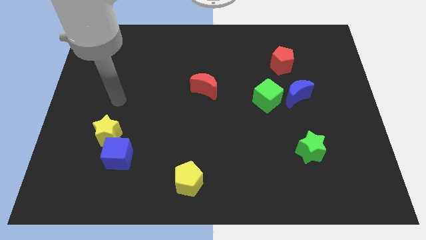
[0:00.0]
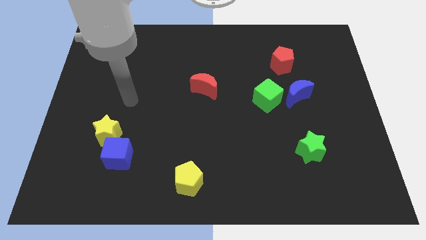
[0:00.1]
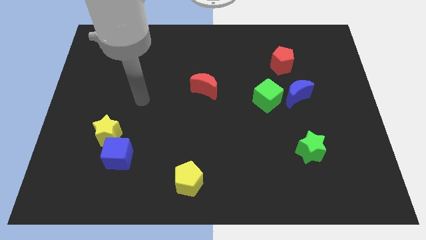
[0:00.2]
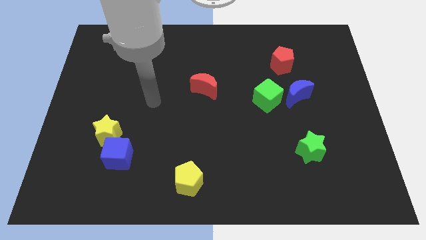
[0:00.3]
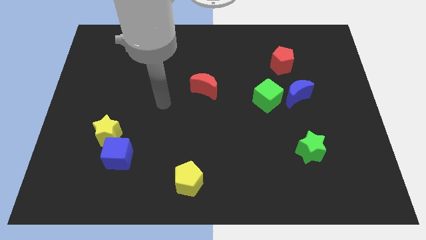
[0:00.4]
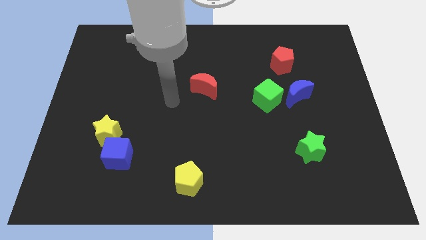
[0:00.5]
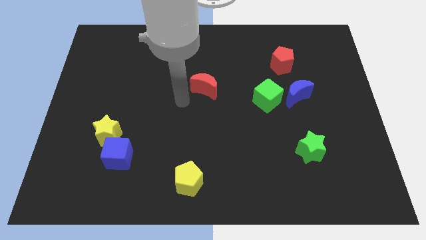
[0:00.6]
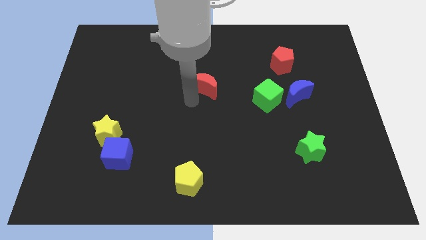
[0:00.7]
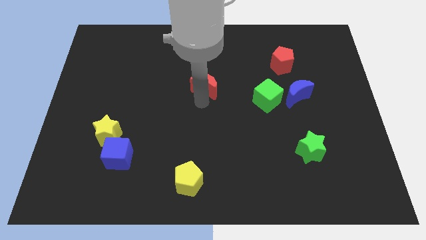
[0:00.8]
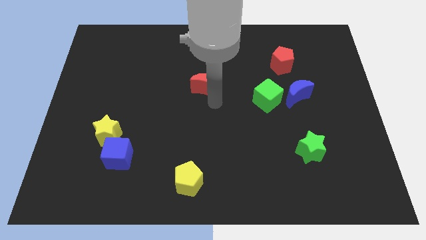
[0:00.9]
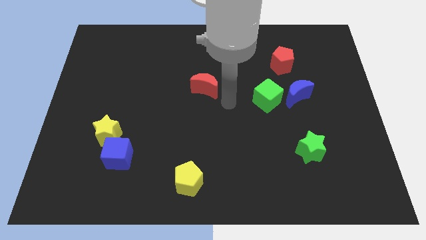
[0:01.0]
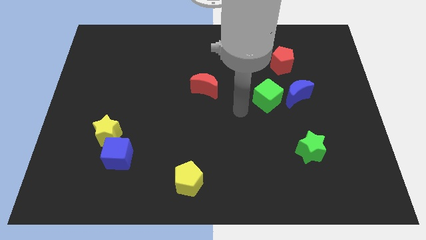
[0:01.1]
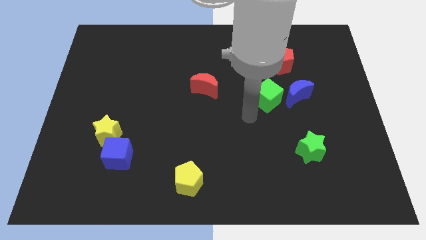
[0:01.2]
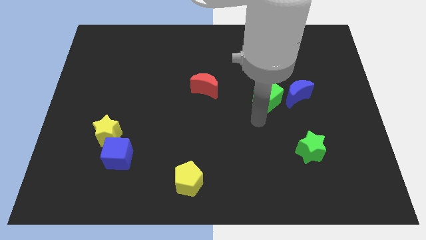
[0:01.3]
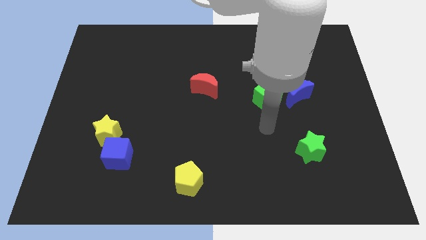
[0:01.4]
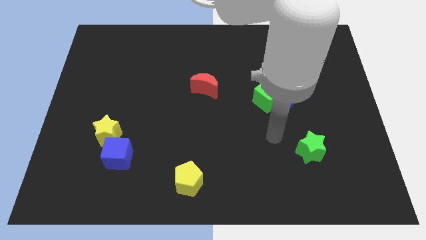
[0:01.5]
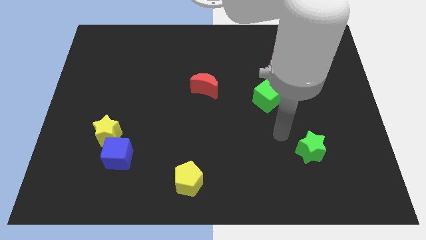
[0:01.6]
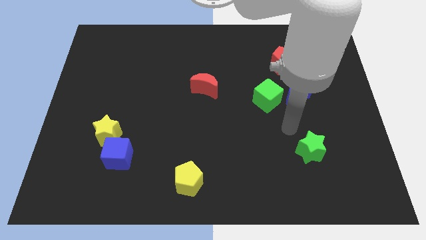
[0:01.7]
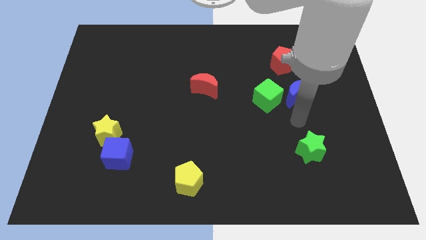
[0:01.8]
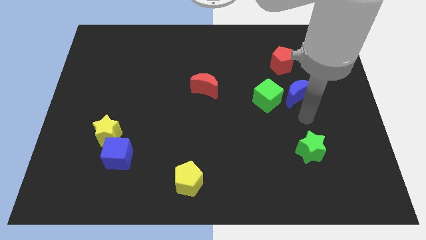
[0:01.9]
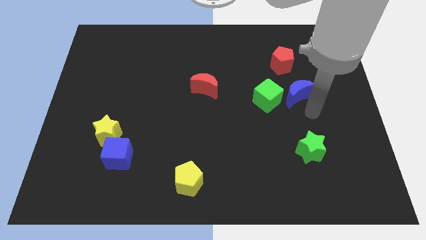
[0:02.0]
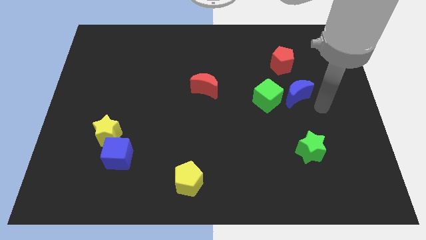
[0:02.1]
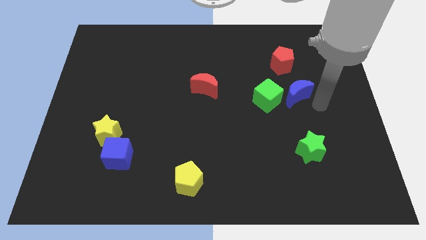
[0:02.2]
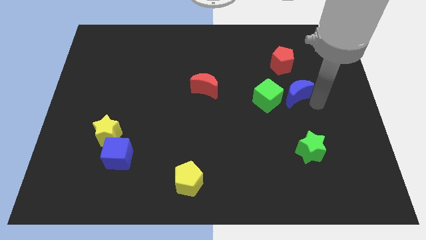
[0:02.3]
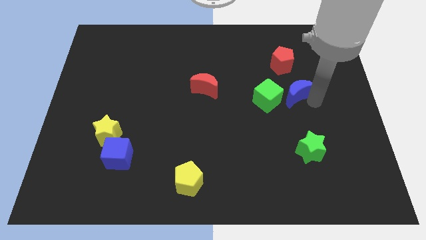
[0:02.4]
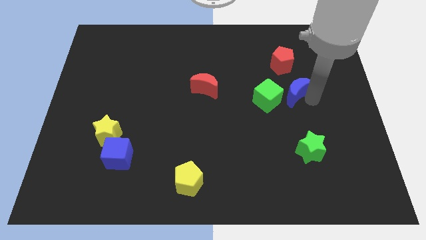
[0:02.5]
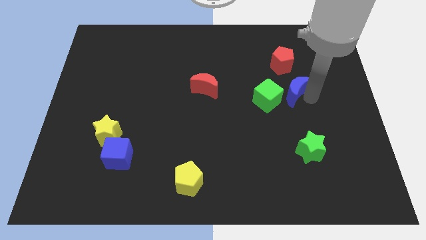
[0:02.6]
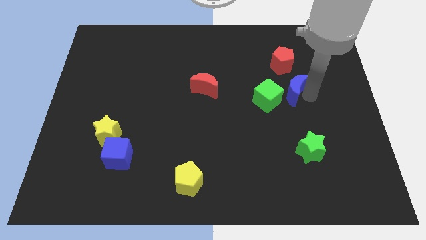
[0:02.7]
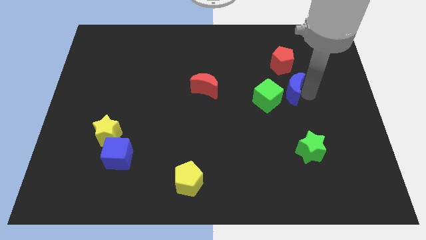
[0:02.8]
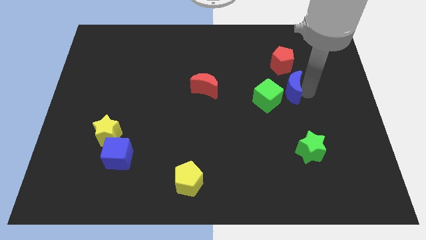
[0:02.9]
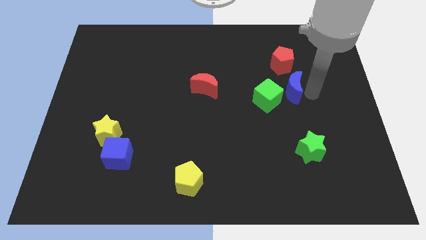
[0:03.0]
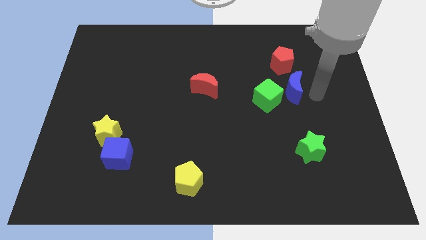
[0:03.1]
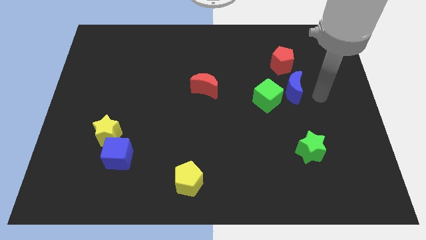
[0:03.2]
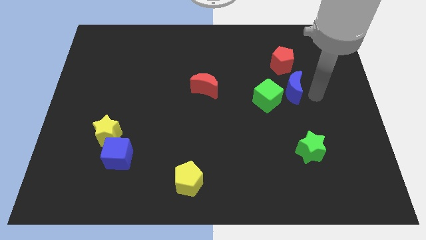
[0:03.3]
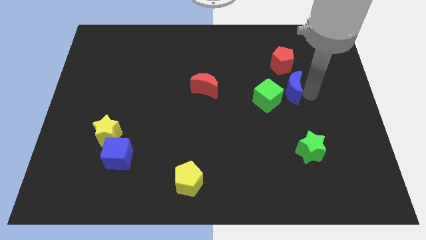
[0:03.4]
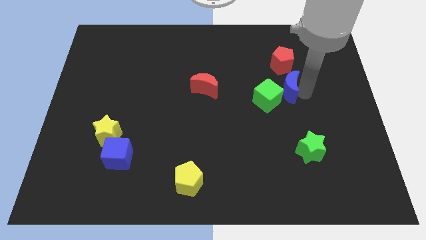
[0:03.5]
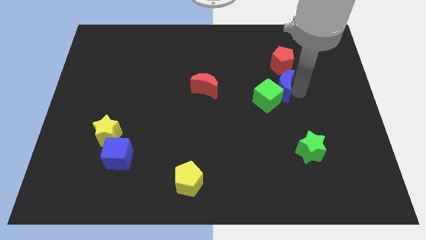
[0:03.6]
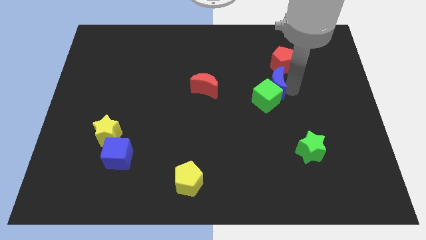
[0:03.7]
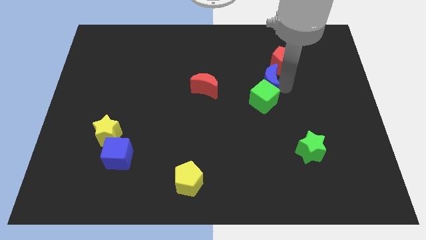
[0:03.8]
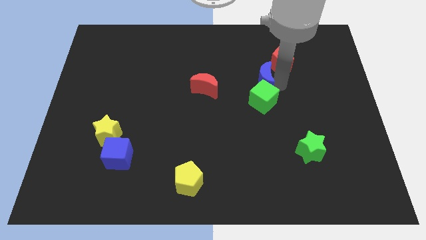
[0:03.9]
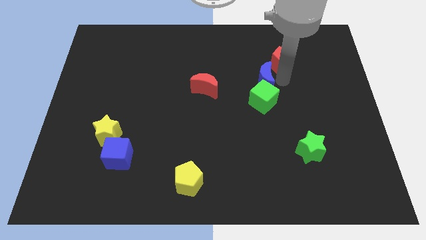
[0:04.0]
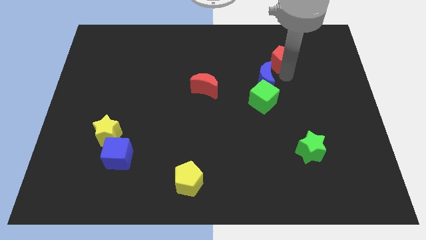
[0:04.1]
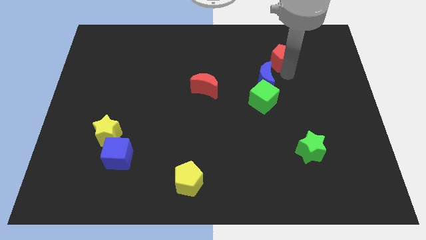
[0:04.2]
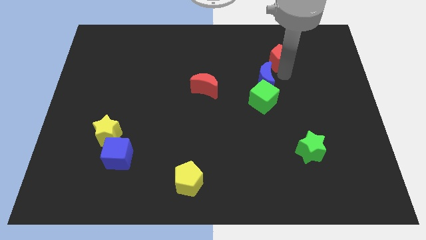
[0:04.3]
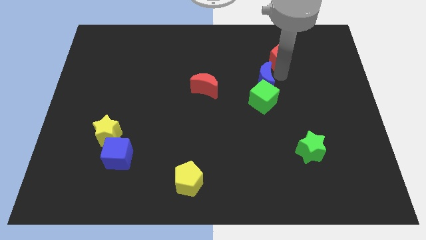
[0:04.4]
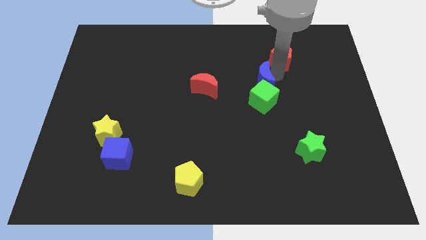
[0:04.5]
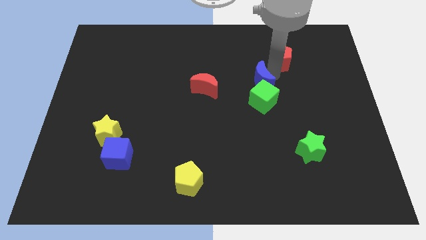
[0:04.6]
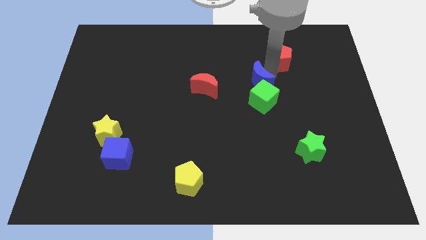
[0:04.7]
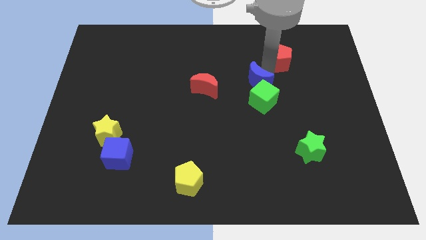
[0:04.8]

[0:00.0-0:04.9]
push the blue moon to the center of the board

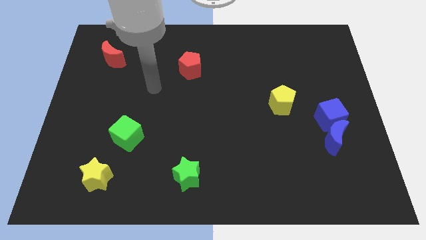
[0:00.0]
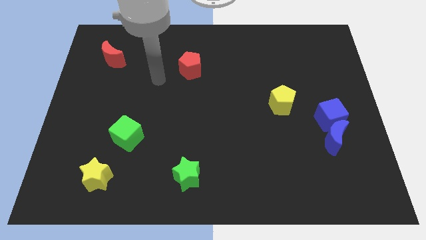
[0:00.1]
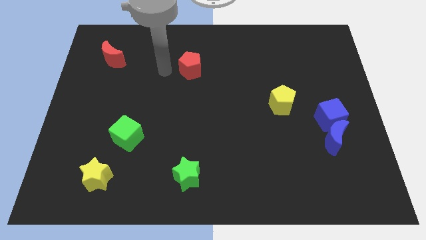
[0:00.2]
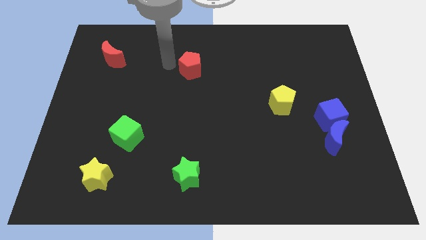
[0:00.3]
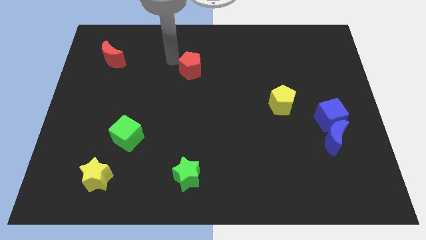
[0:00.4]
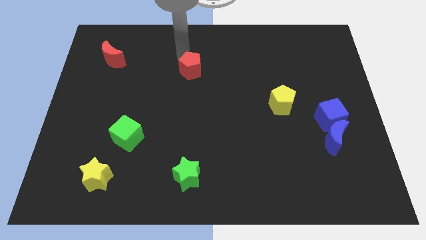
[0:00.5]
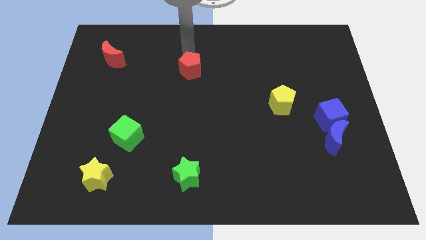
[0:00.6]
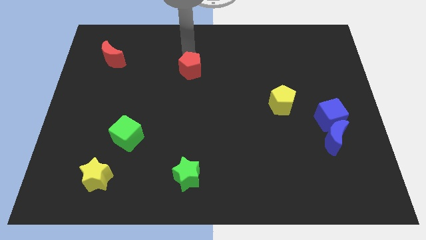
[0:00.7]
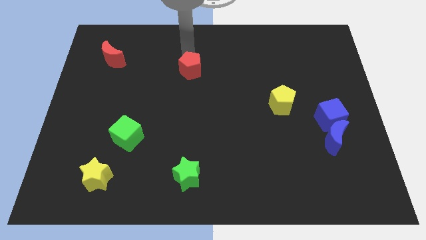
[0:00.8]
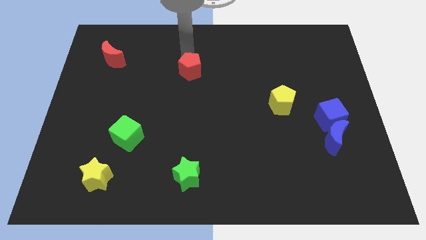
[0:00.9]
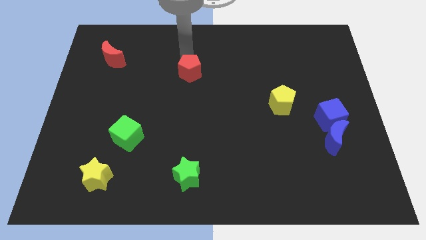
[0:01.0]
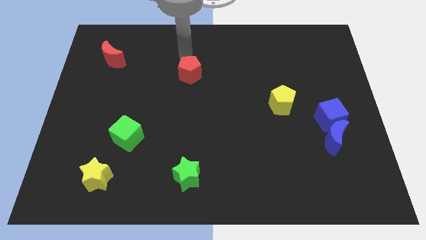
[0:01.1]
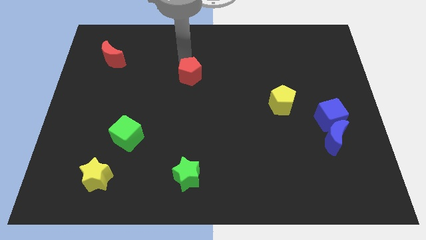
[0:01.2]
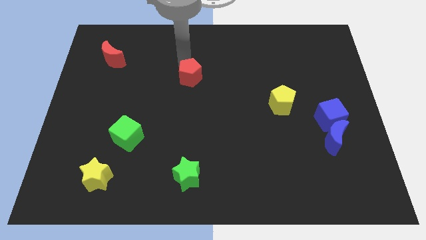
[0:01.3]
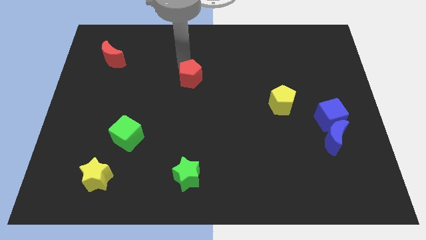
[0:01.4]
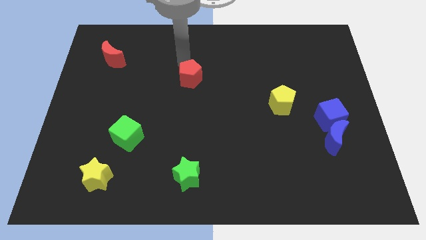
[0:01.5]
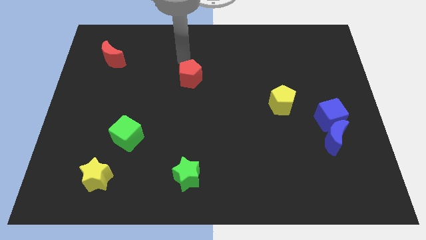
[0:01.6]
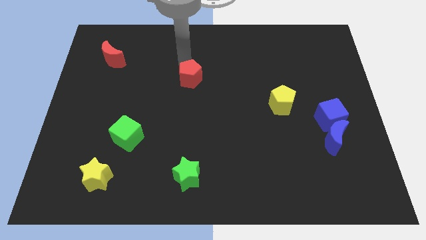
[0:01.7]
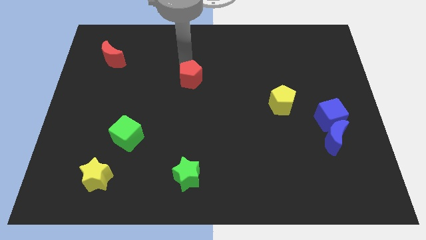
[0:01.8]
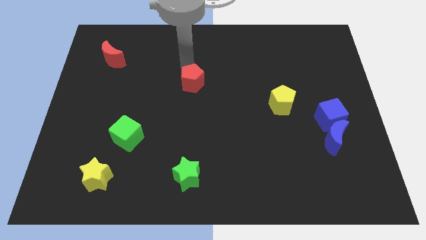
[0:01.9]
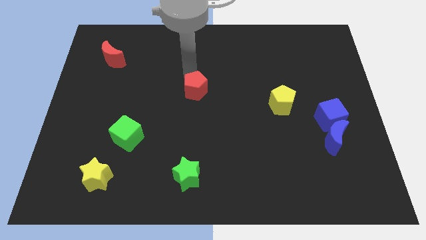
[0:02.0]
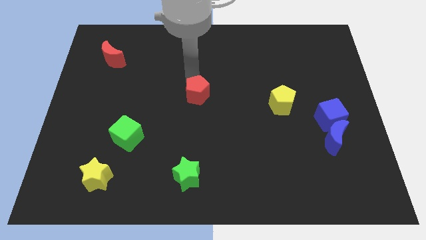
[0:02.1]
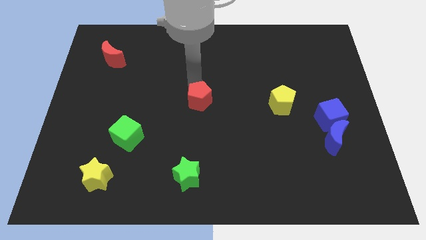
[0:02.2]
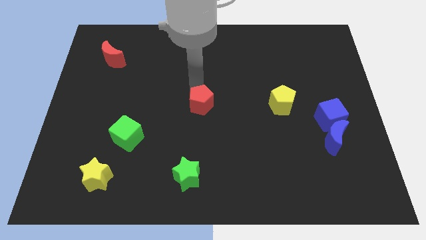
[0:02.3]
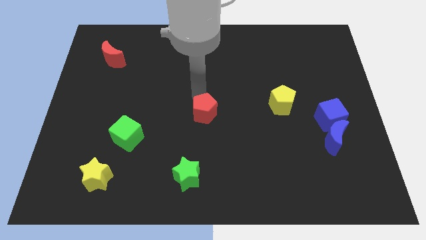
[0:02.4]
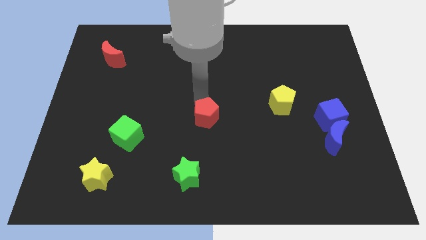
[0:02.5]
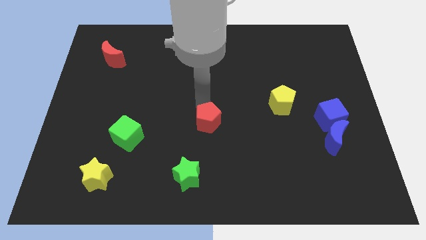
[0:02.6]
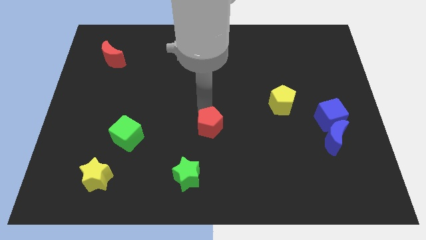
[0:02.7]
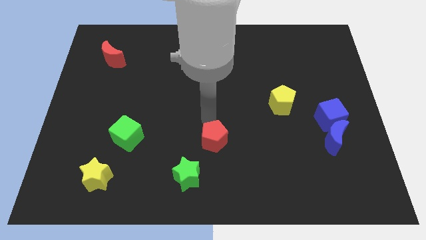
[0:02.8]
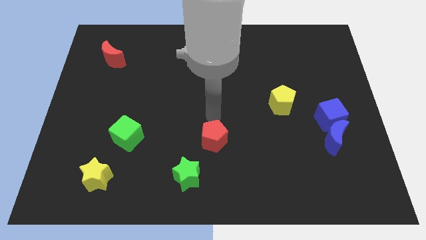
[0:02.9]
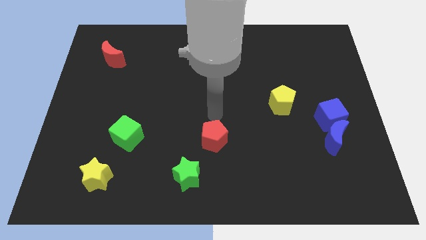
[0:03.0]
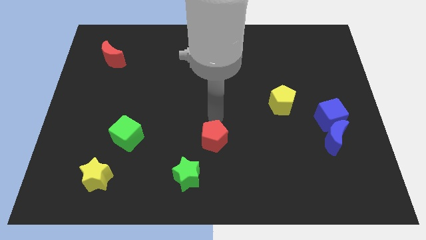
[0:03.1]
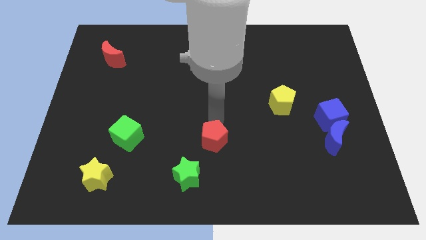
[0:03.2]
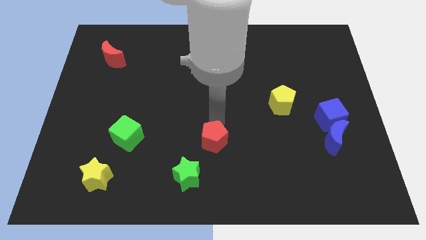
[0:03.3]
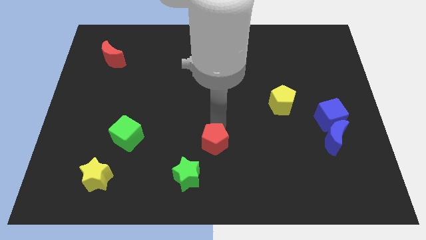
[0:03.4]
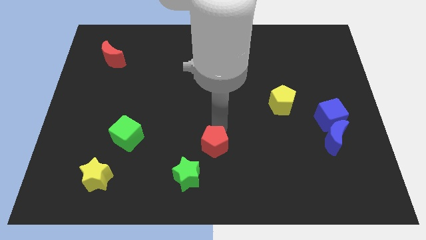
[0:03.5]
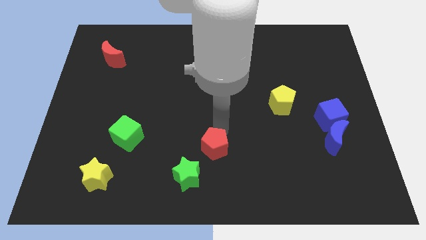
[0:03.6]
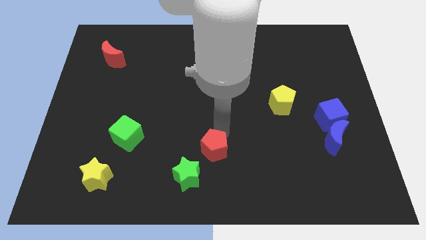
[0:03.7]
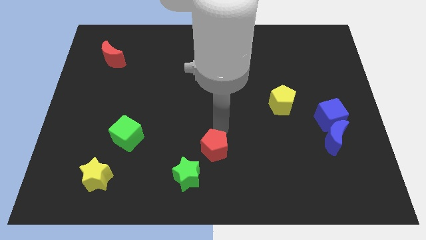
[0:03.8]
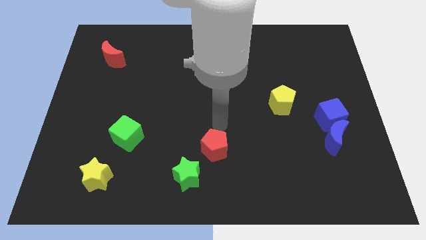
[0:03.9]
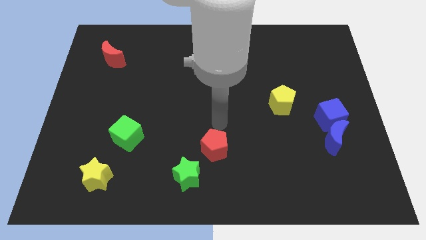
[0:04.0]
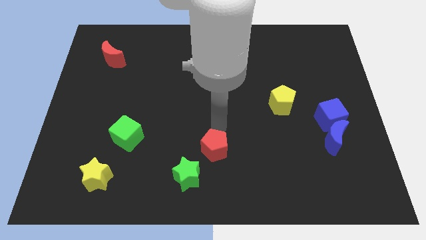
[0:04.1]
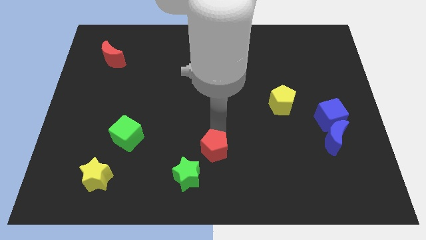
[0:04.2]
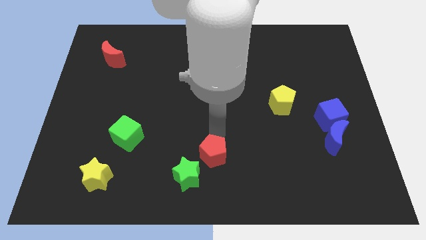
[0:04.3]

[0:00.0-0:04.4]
push the red pentagon to the bottom
